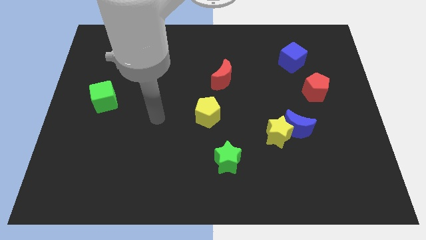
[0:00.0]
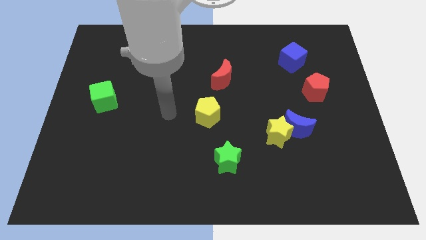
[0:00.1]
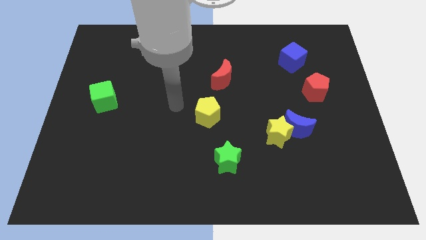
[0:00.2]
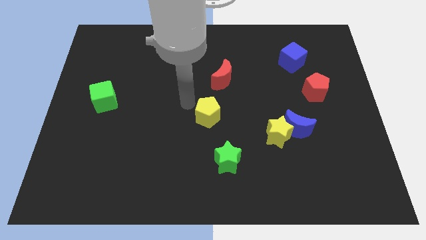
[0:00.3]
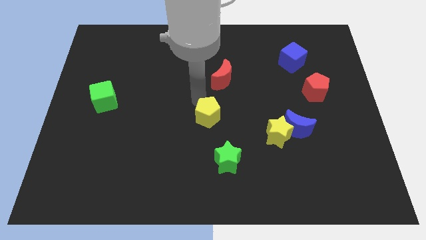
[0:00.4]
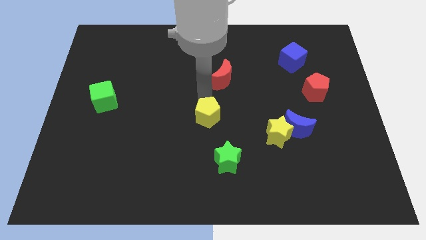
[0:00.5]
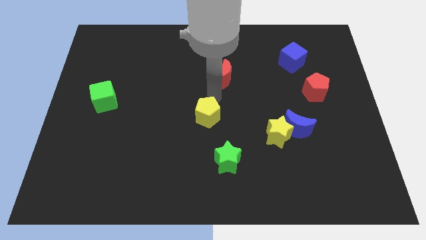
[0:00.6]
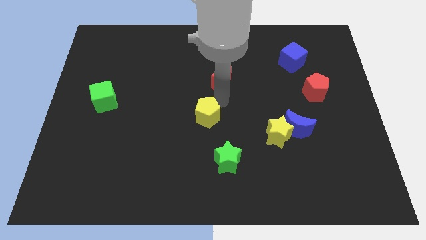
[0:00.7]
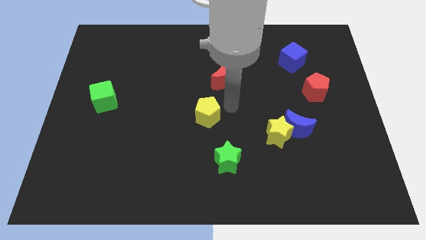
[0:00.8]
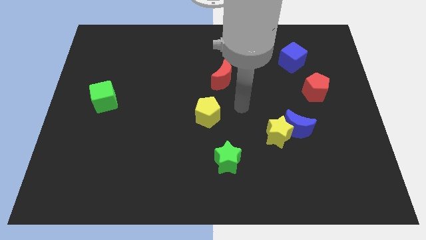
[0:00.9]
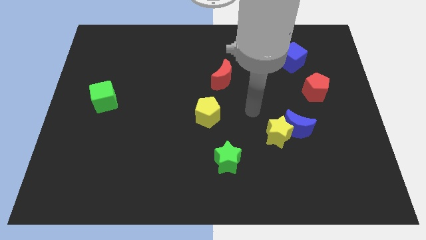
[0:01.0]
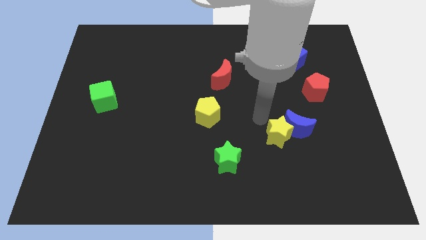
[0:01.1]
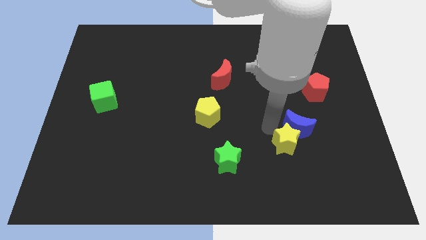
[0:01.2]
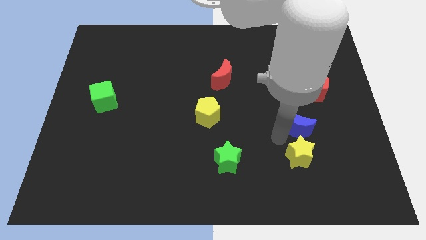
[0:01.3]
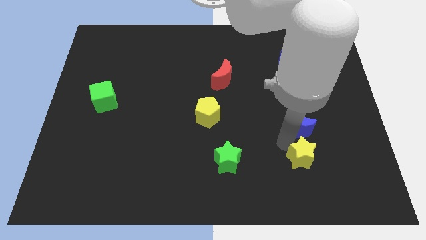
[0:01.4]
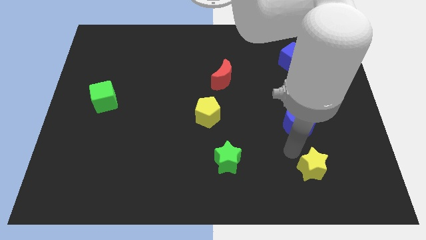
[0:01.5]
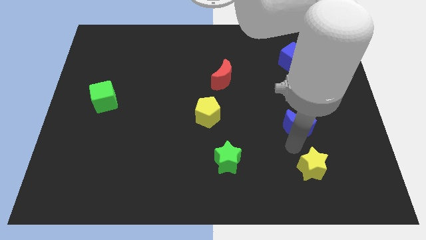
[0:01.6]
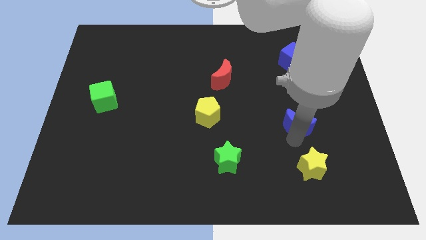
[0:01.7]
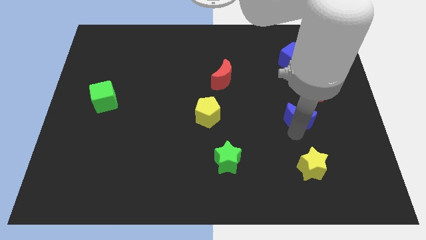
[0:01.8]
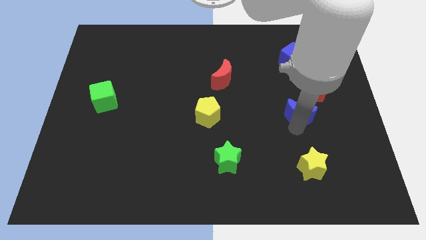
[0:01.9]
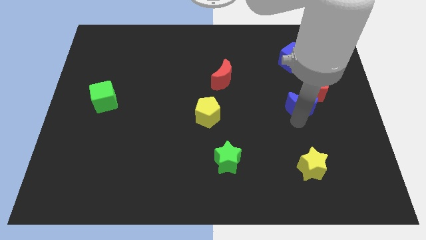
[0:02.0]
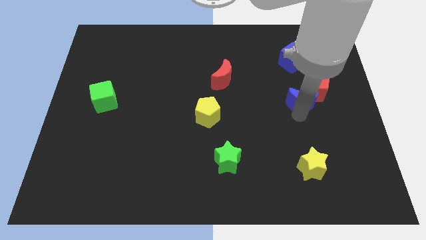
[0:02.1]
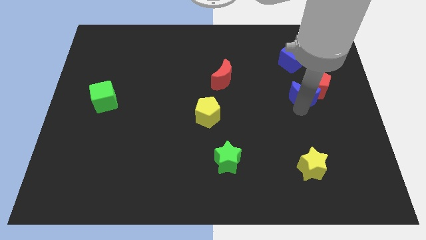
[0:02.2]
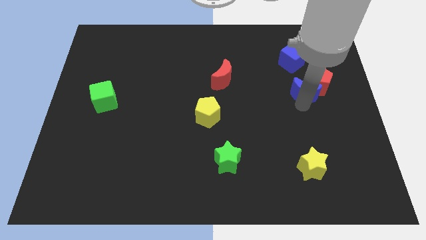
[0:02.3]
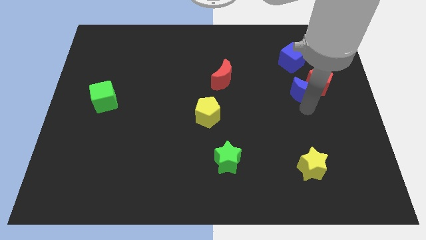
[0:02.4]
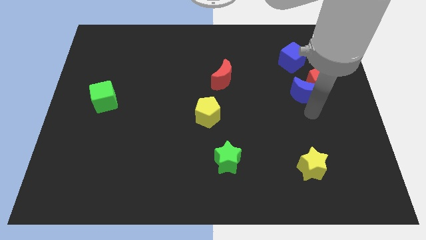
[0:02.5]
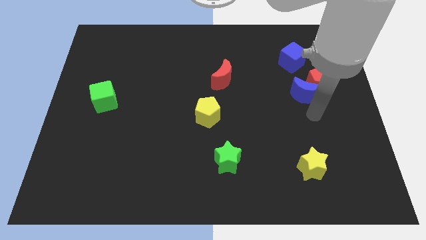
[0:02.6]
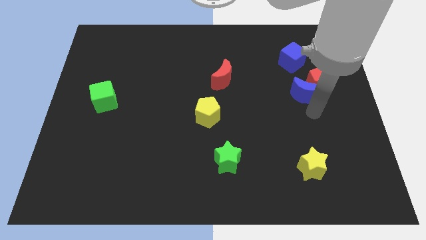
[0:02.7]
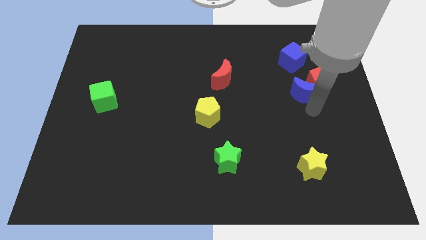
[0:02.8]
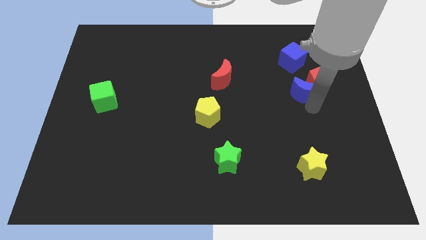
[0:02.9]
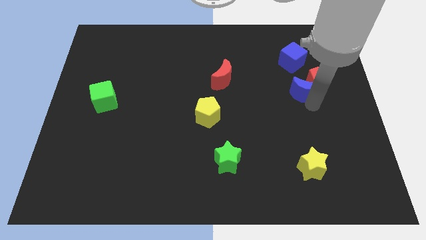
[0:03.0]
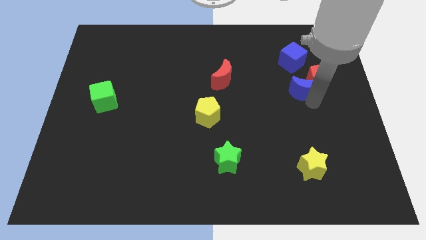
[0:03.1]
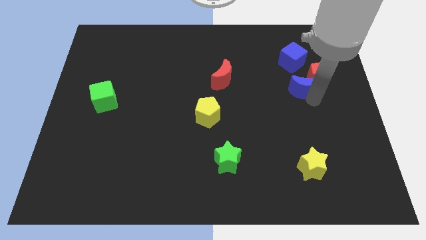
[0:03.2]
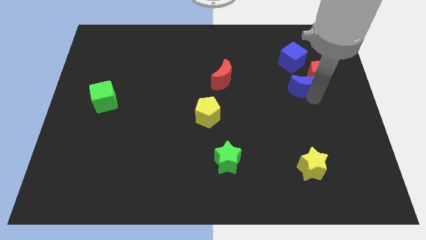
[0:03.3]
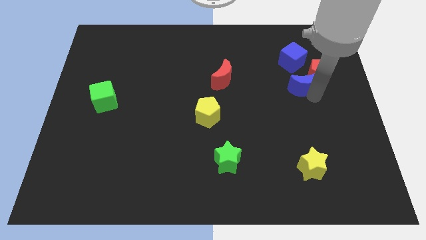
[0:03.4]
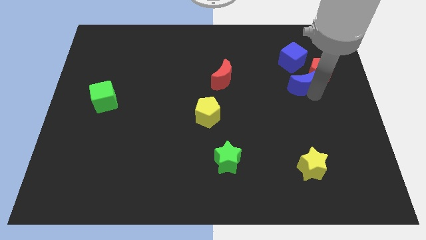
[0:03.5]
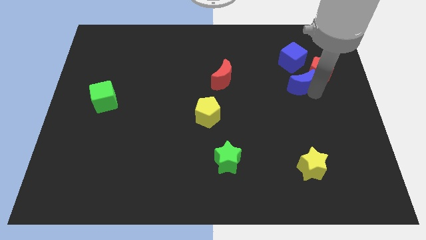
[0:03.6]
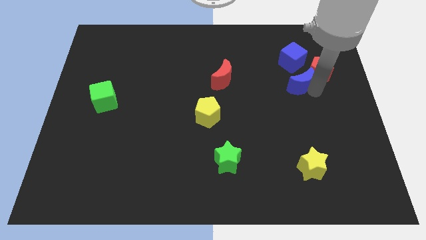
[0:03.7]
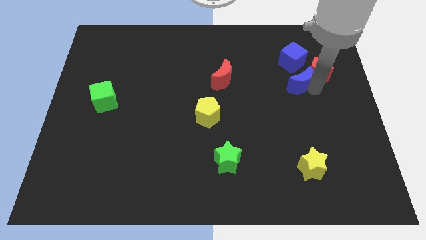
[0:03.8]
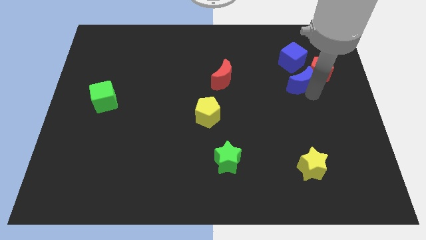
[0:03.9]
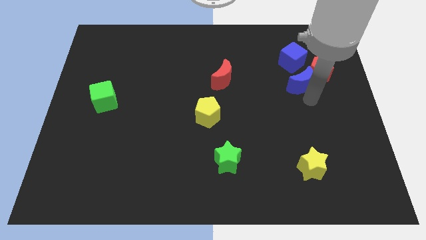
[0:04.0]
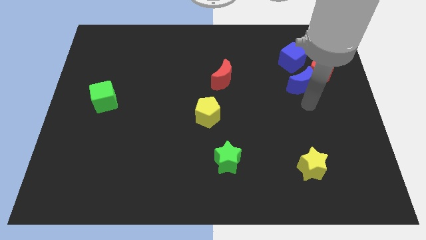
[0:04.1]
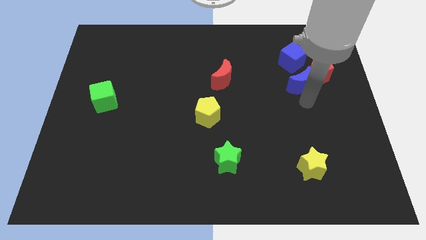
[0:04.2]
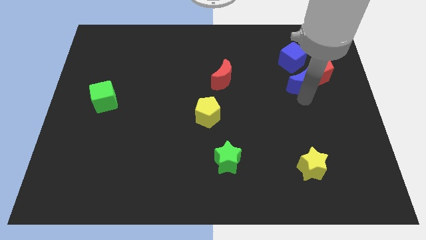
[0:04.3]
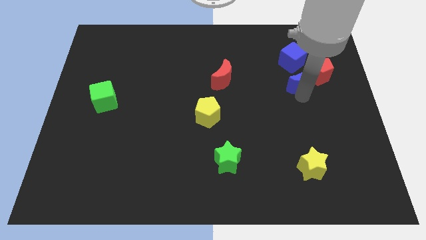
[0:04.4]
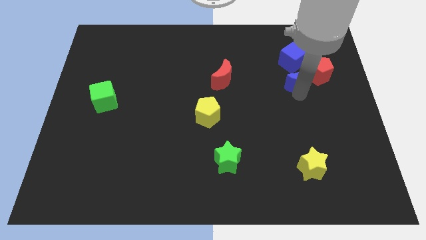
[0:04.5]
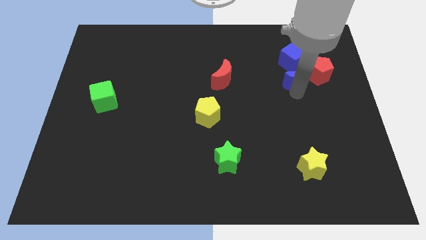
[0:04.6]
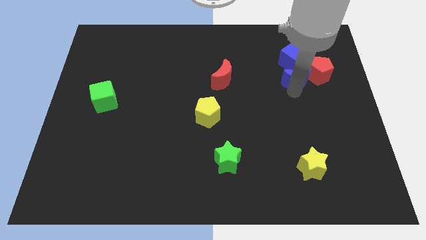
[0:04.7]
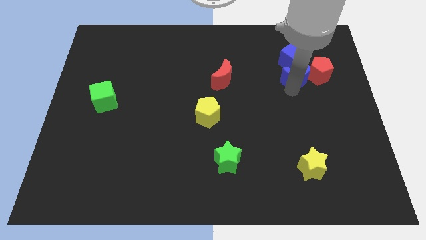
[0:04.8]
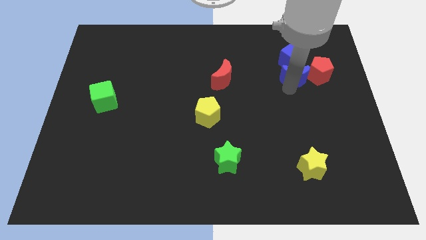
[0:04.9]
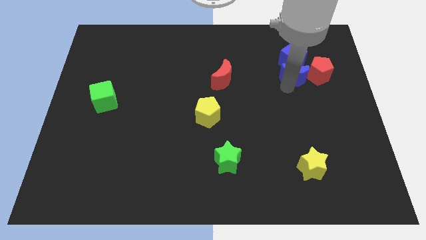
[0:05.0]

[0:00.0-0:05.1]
slide the blue moon towards the blue cube

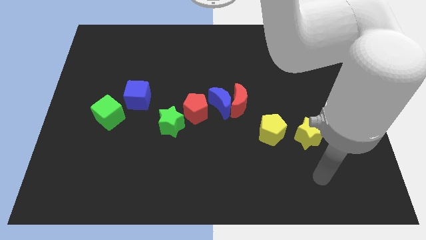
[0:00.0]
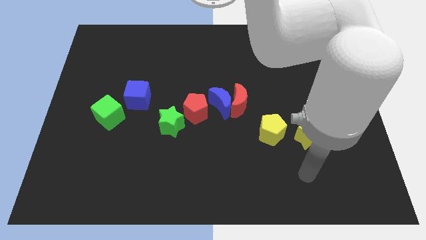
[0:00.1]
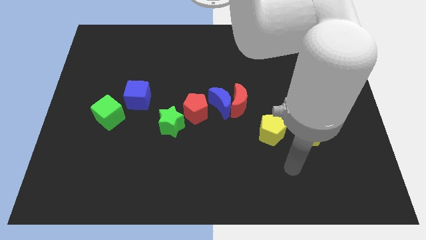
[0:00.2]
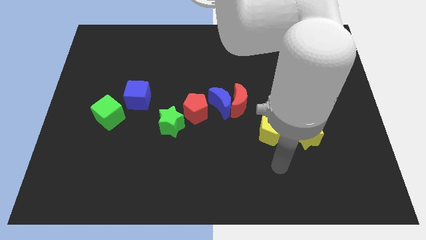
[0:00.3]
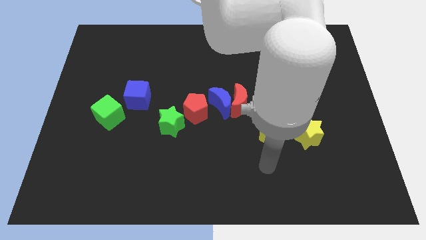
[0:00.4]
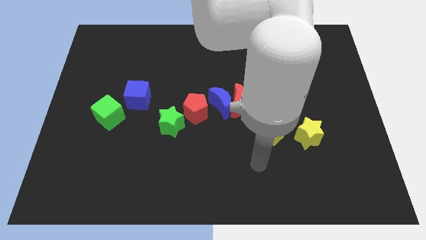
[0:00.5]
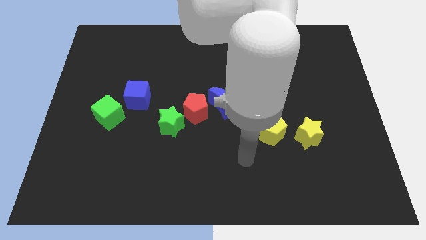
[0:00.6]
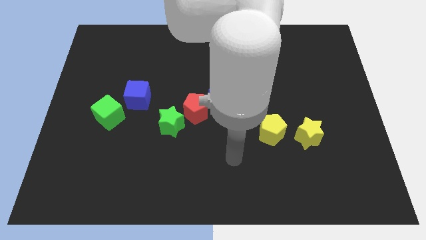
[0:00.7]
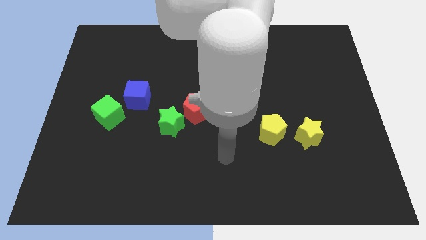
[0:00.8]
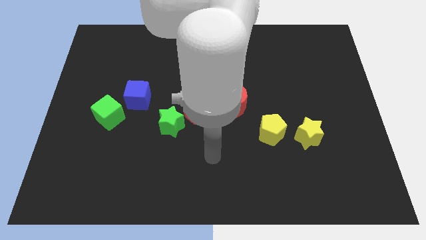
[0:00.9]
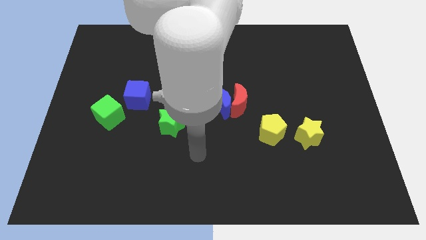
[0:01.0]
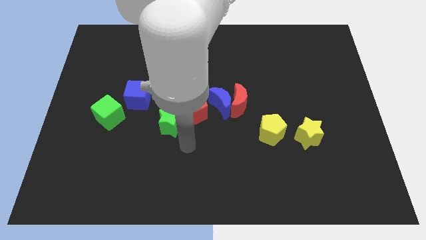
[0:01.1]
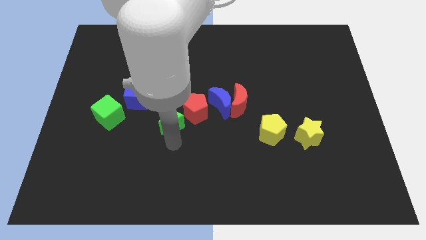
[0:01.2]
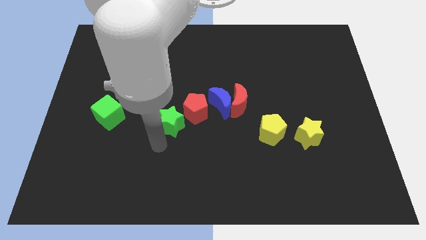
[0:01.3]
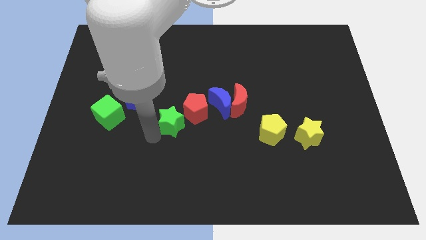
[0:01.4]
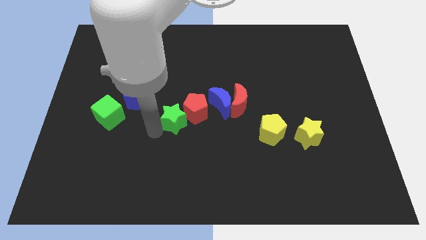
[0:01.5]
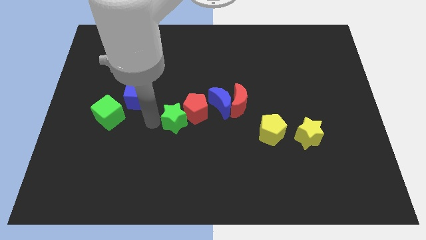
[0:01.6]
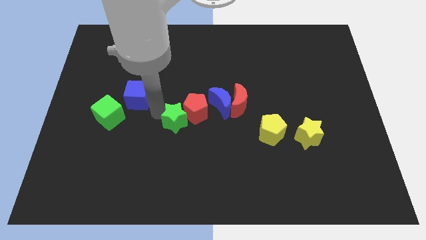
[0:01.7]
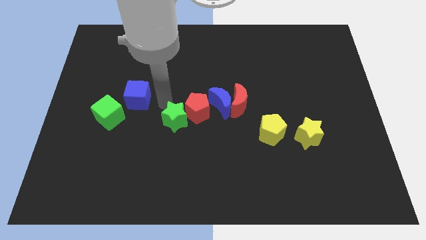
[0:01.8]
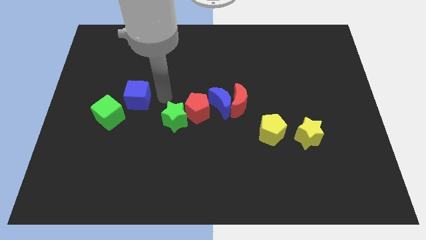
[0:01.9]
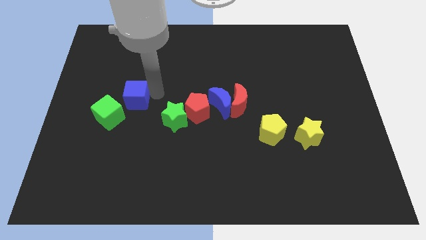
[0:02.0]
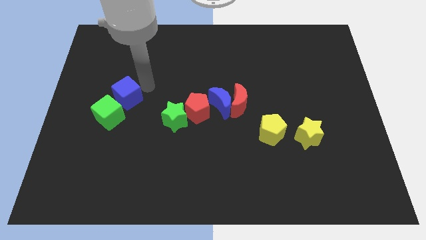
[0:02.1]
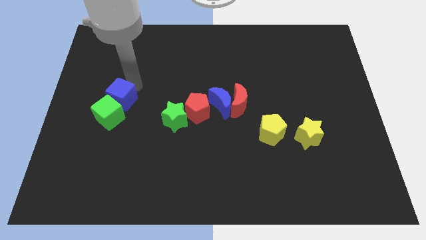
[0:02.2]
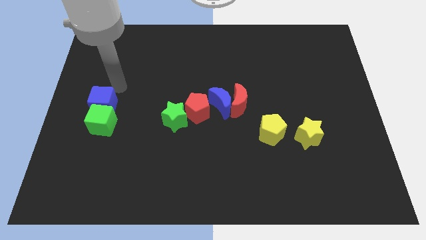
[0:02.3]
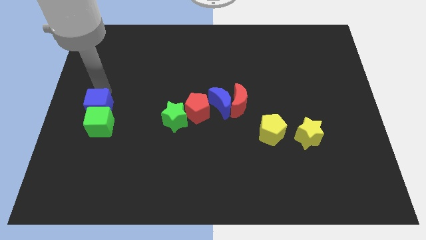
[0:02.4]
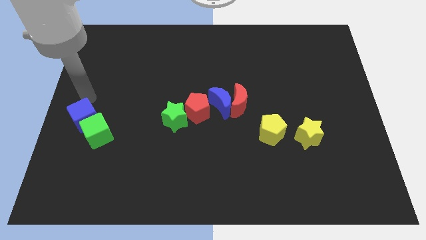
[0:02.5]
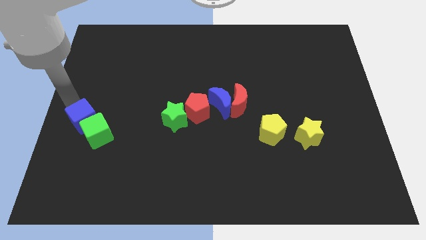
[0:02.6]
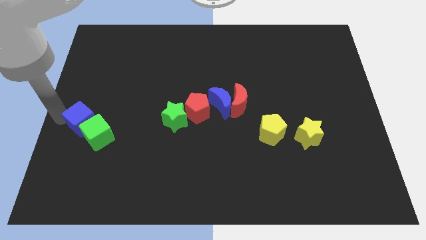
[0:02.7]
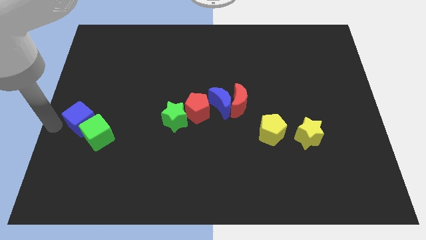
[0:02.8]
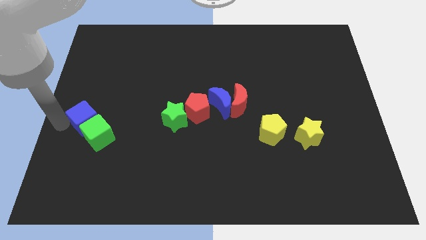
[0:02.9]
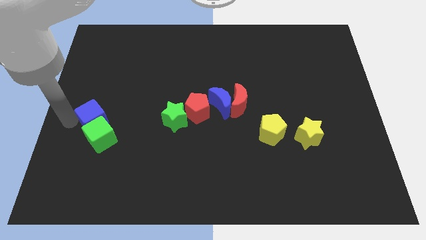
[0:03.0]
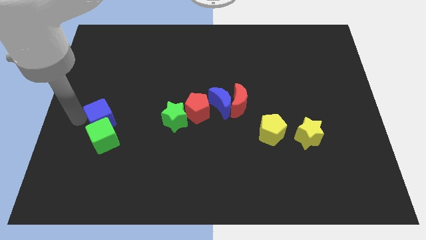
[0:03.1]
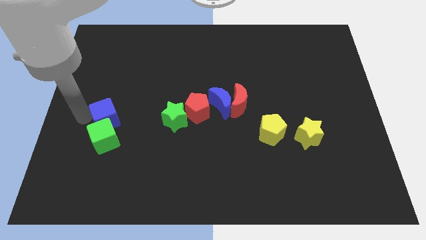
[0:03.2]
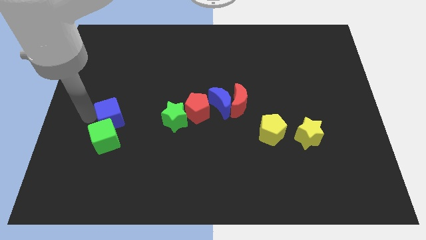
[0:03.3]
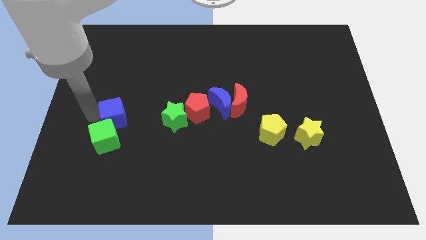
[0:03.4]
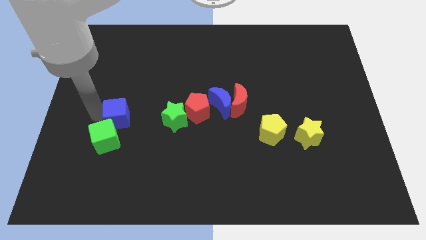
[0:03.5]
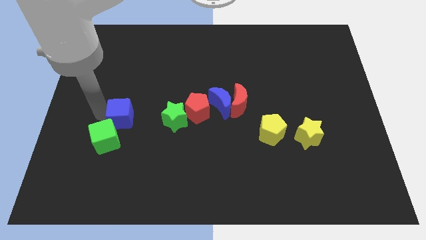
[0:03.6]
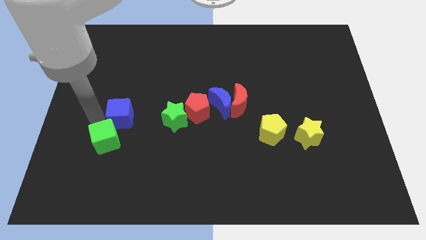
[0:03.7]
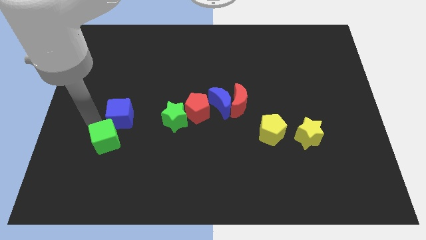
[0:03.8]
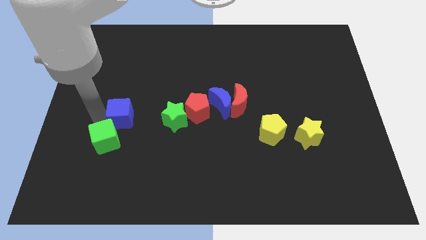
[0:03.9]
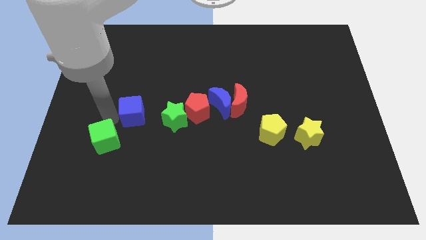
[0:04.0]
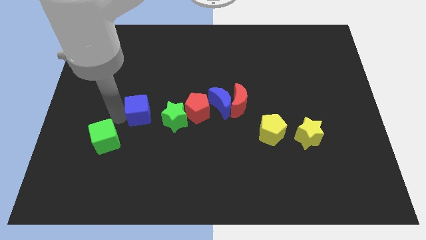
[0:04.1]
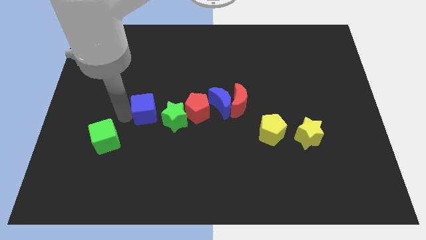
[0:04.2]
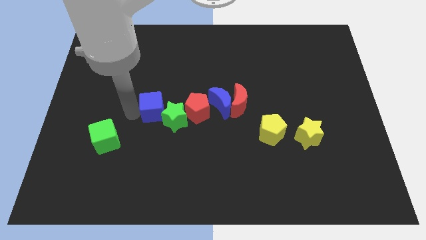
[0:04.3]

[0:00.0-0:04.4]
slide the blue cube close to the green star
